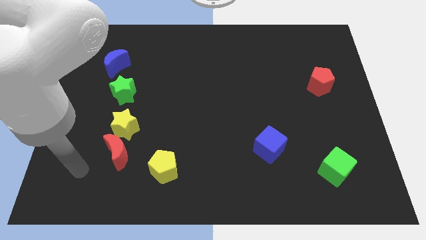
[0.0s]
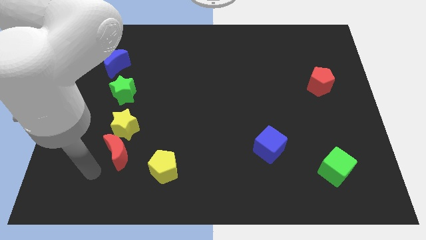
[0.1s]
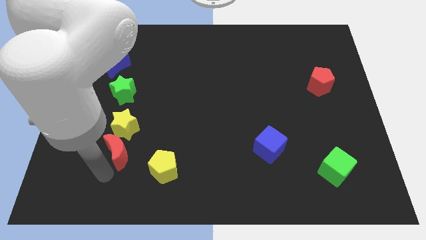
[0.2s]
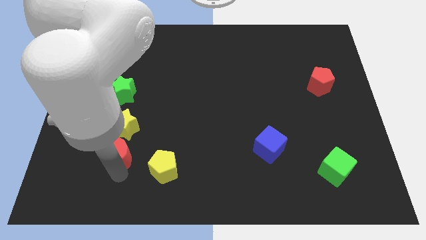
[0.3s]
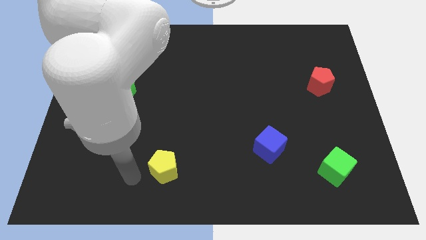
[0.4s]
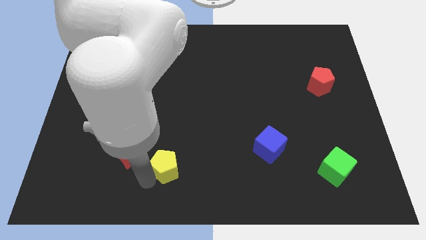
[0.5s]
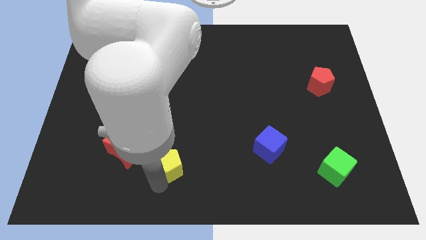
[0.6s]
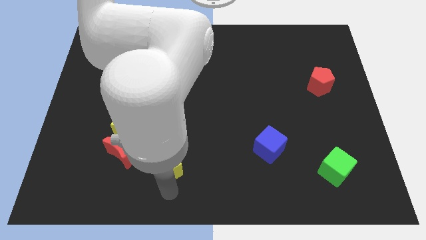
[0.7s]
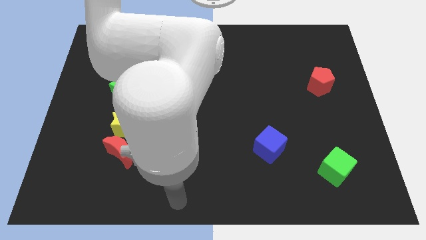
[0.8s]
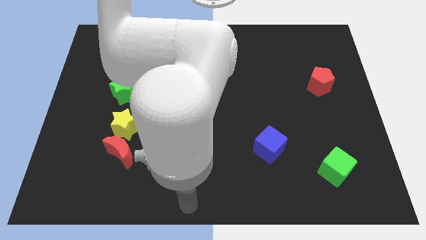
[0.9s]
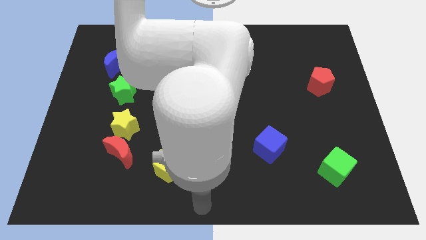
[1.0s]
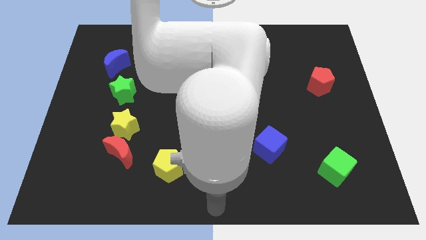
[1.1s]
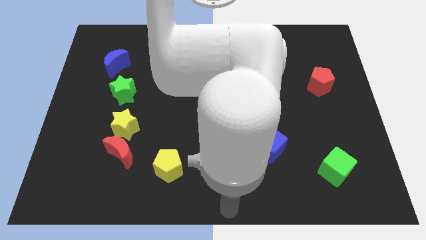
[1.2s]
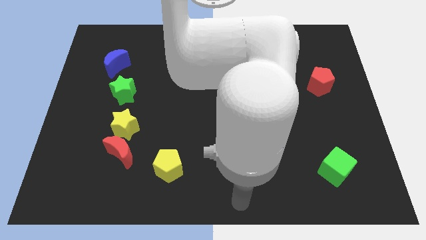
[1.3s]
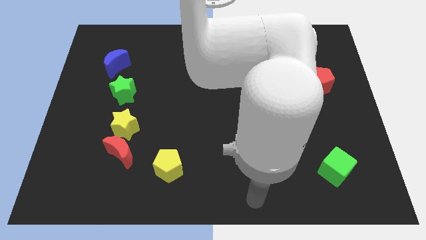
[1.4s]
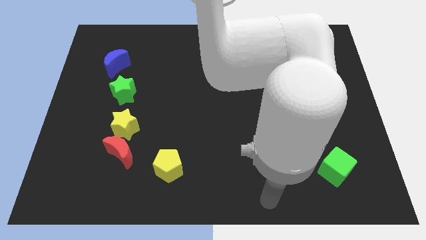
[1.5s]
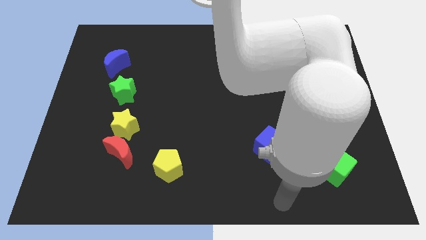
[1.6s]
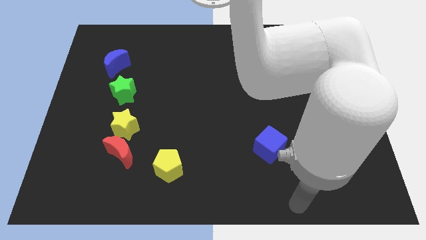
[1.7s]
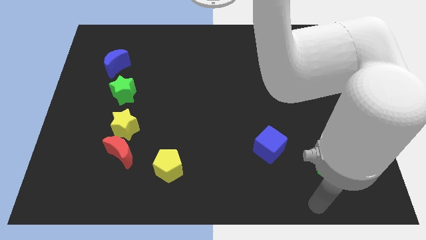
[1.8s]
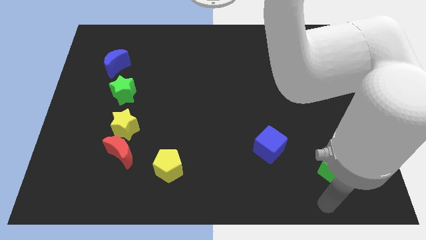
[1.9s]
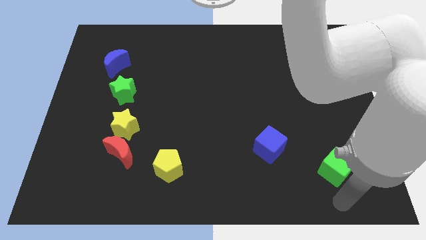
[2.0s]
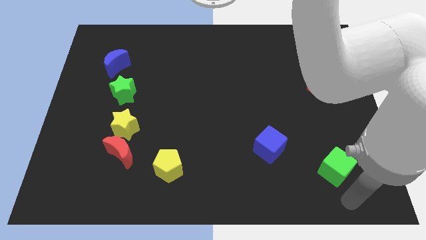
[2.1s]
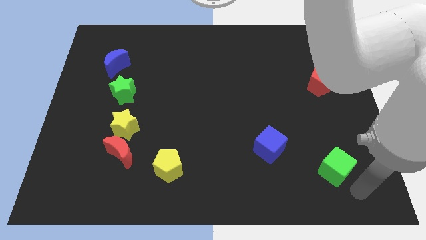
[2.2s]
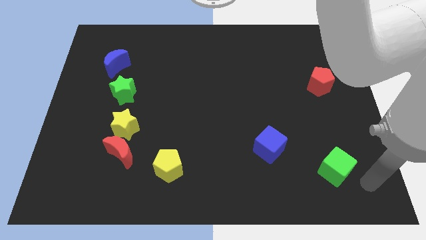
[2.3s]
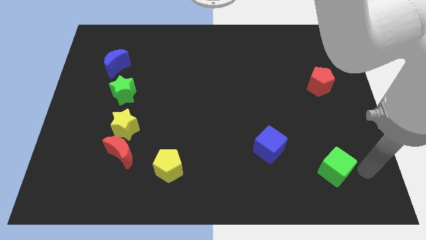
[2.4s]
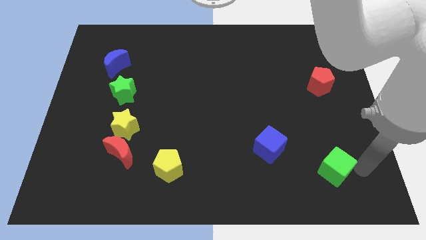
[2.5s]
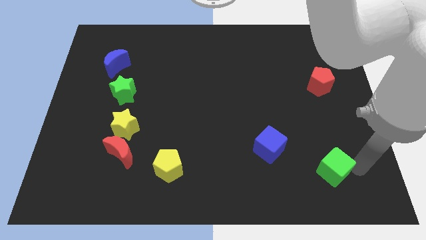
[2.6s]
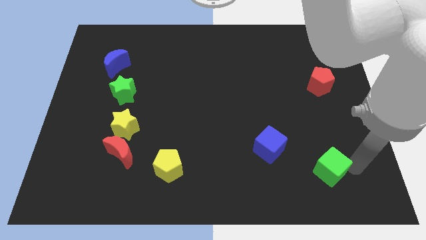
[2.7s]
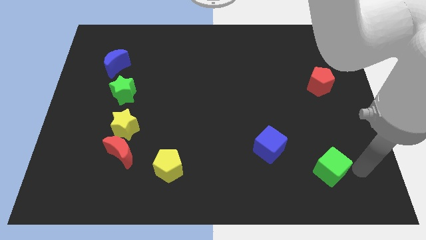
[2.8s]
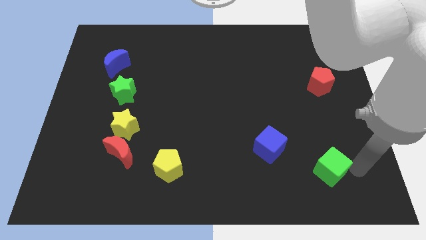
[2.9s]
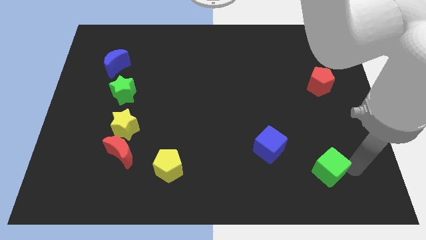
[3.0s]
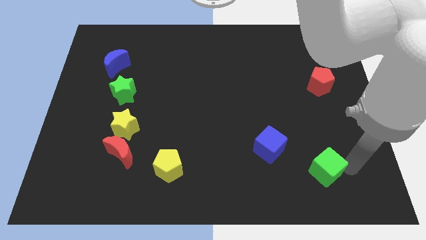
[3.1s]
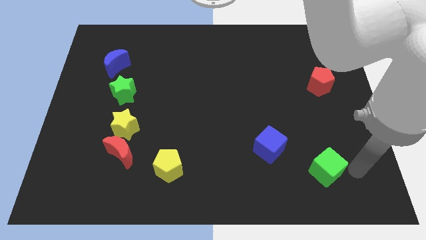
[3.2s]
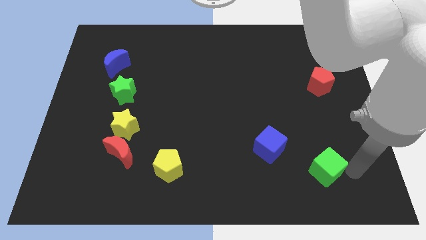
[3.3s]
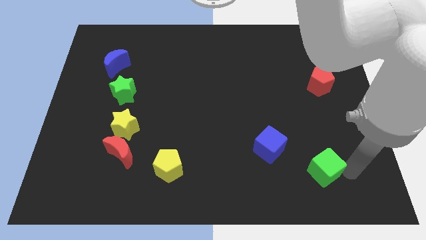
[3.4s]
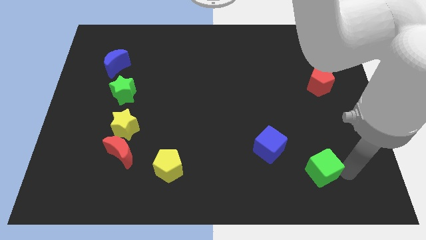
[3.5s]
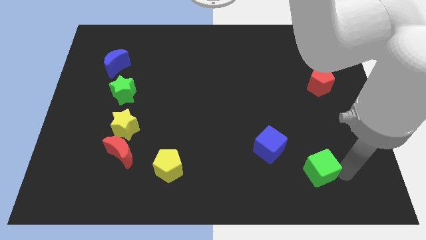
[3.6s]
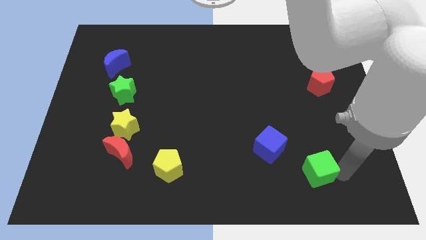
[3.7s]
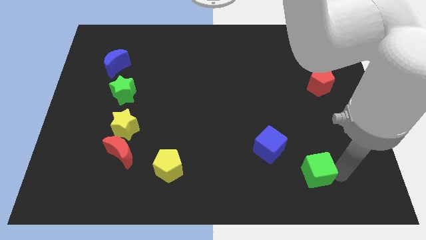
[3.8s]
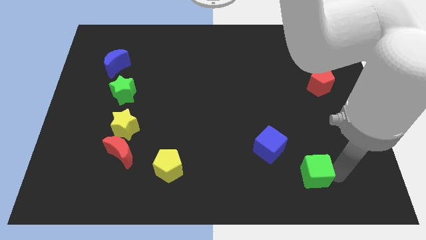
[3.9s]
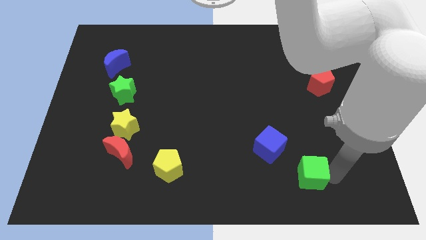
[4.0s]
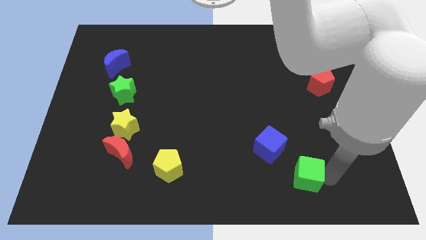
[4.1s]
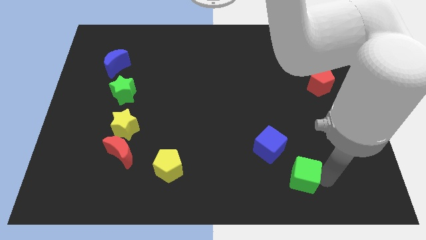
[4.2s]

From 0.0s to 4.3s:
move the green cube a little to the left

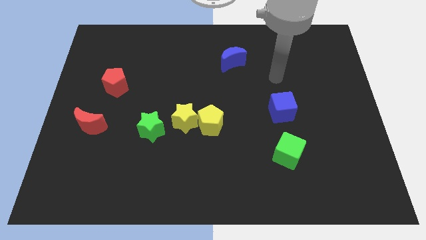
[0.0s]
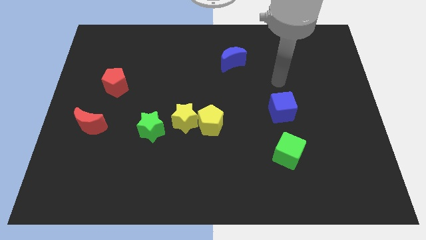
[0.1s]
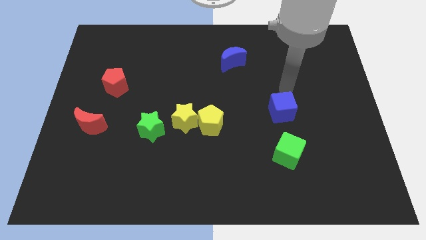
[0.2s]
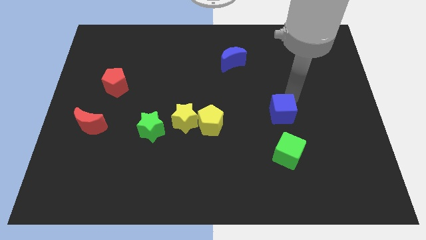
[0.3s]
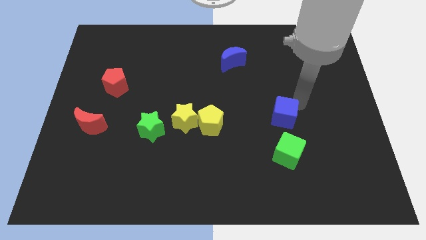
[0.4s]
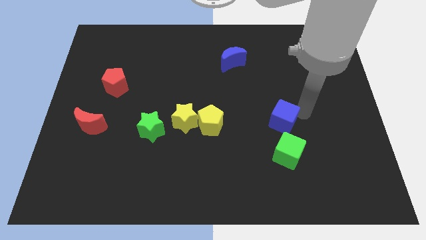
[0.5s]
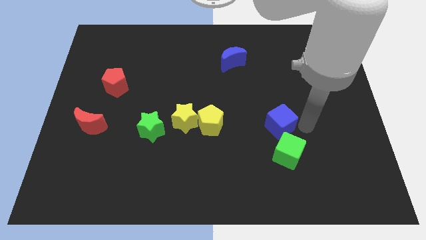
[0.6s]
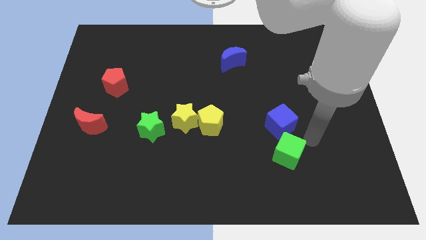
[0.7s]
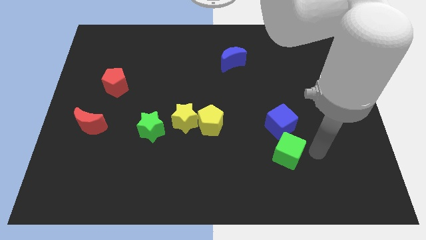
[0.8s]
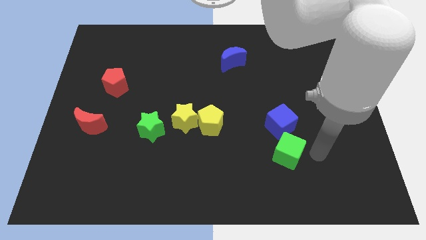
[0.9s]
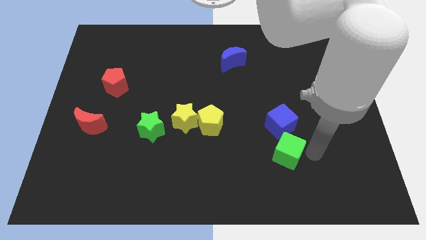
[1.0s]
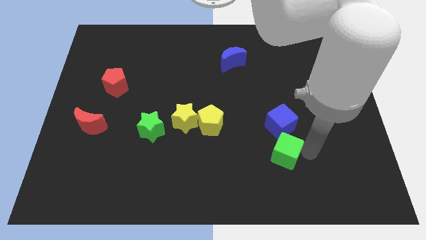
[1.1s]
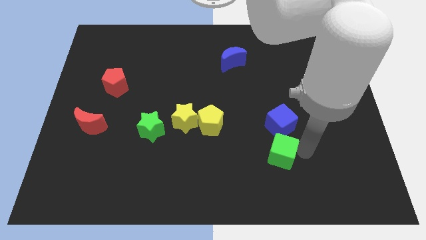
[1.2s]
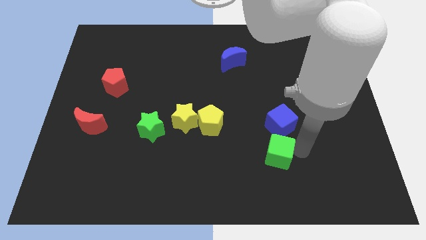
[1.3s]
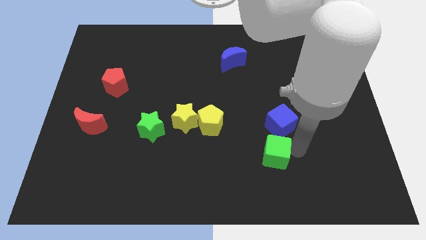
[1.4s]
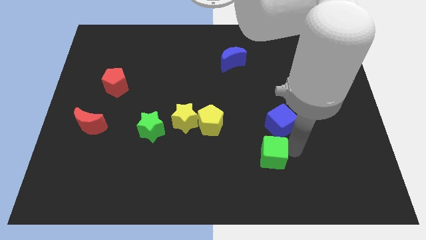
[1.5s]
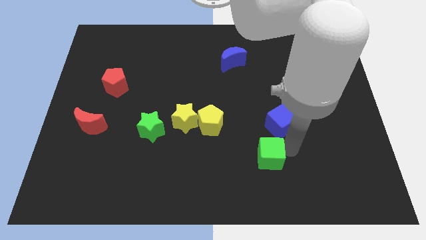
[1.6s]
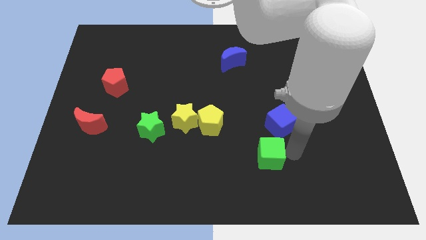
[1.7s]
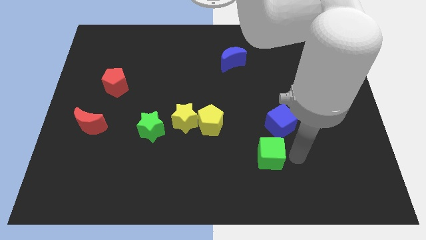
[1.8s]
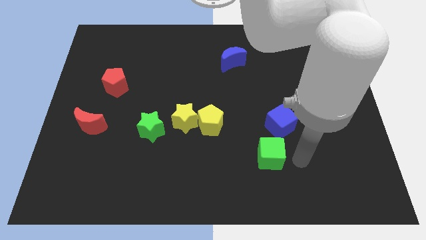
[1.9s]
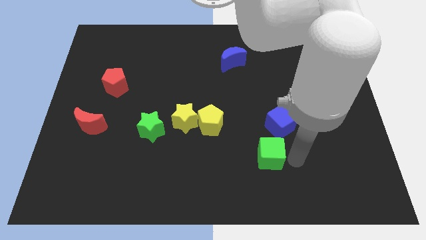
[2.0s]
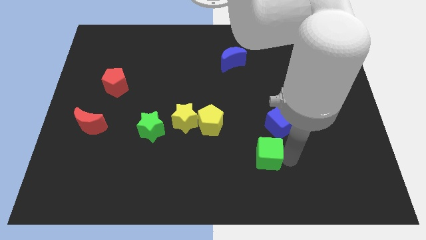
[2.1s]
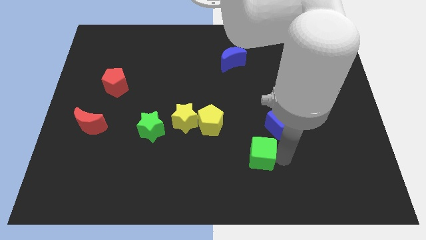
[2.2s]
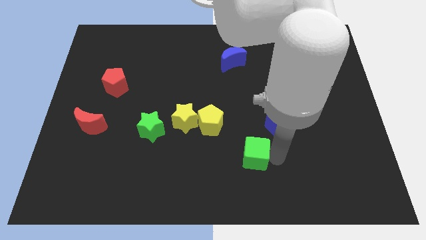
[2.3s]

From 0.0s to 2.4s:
slide the green cube a little to the left

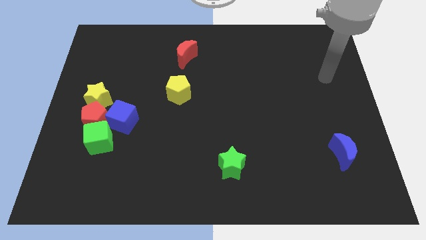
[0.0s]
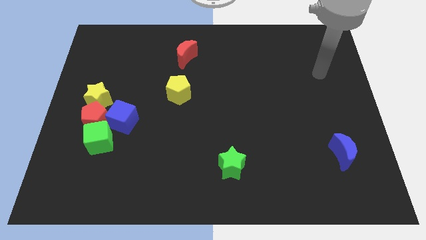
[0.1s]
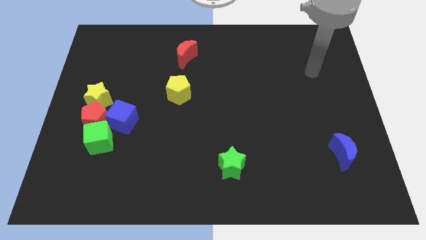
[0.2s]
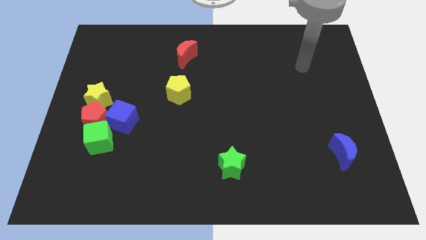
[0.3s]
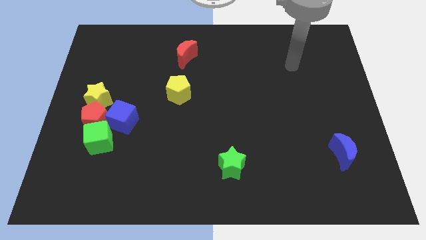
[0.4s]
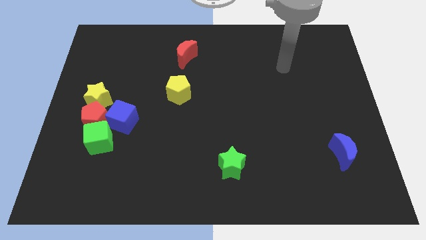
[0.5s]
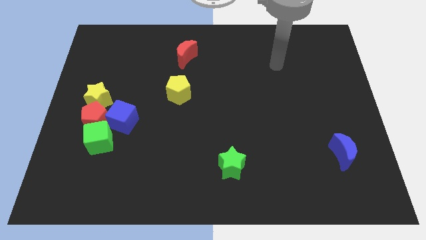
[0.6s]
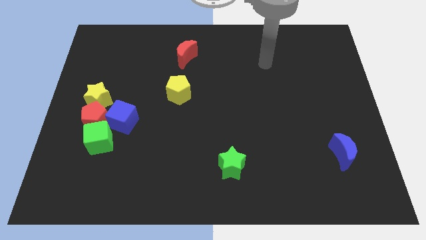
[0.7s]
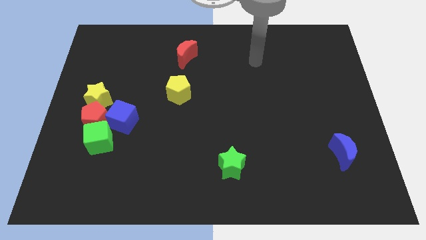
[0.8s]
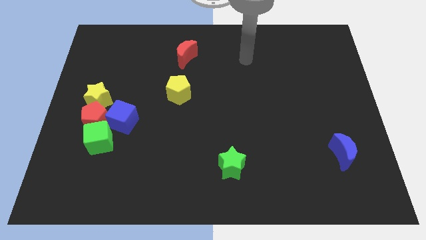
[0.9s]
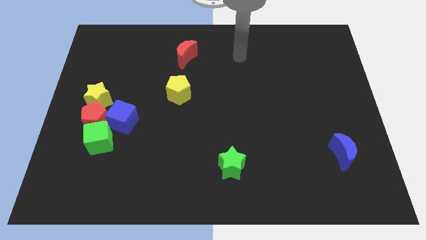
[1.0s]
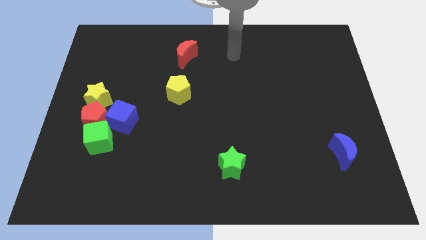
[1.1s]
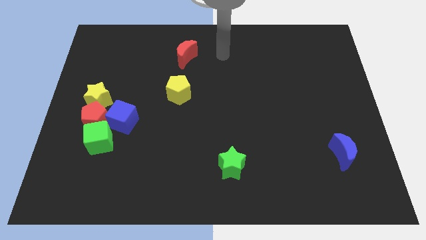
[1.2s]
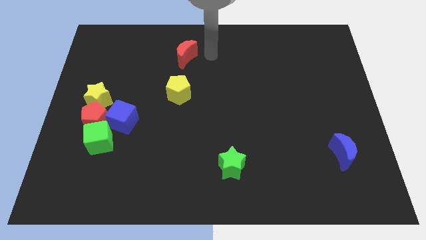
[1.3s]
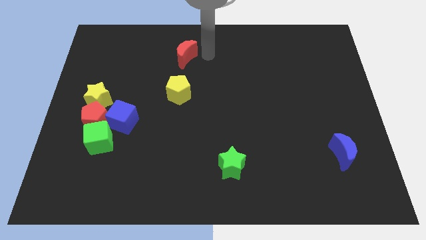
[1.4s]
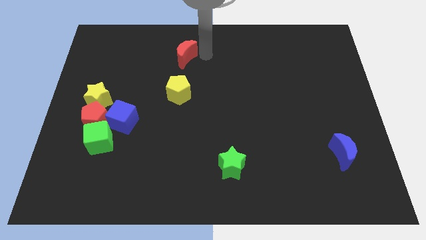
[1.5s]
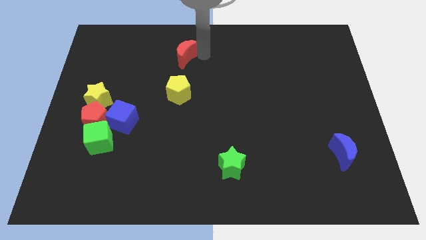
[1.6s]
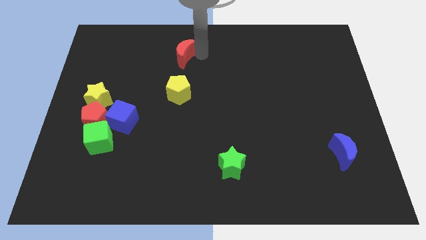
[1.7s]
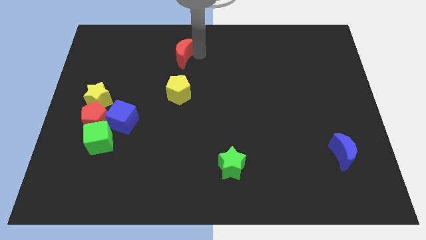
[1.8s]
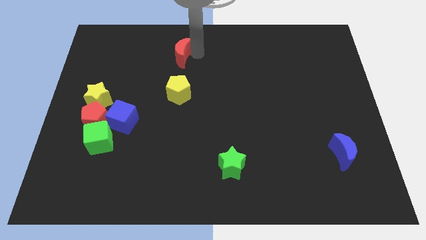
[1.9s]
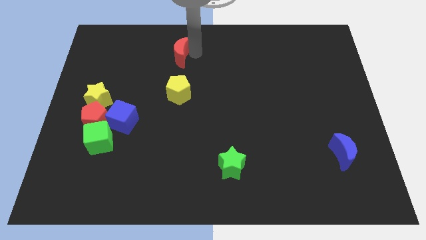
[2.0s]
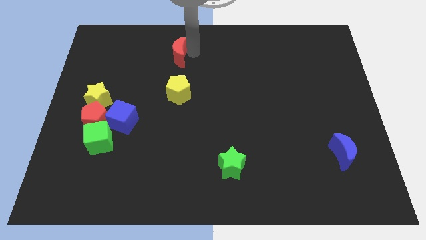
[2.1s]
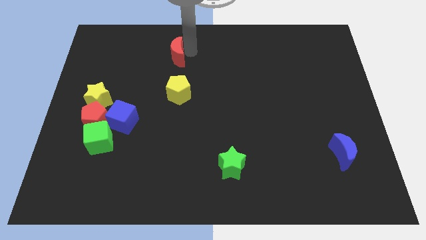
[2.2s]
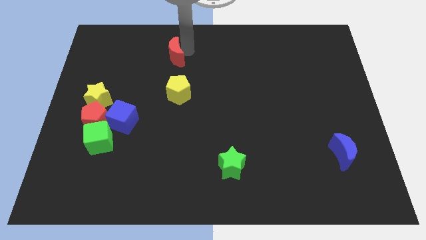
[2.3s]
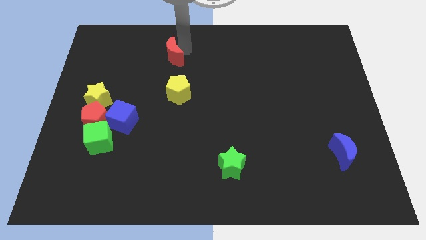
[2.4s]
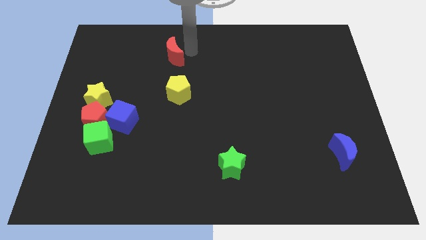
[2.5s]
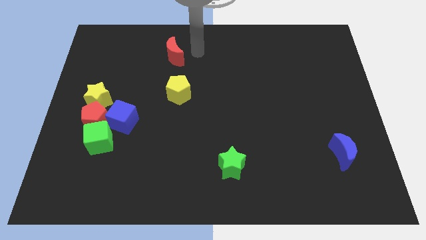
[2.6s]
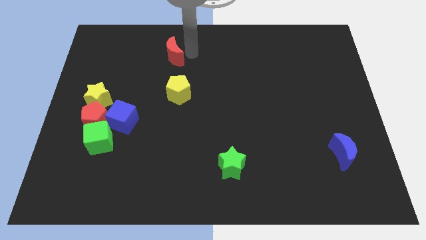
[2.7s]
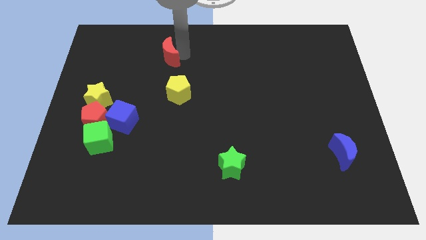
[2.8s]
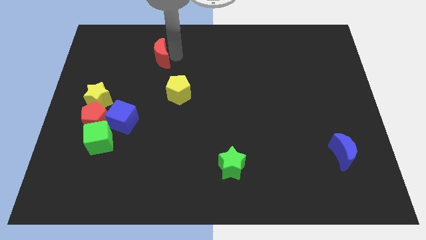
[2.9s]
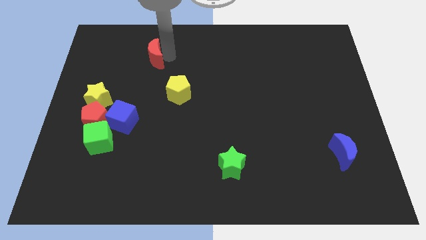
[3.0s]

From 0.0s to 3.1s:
slightly push the red moon to the left
